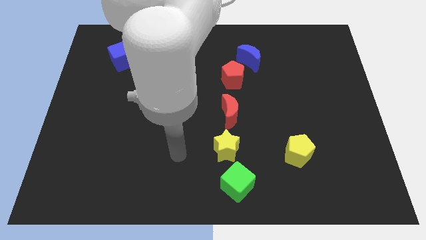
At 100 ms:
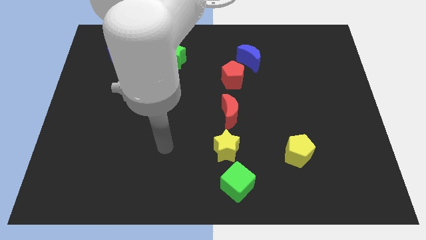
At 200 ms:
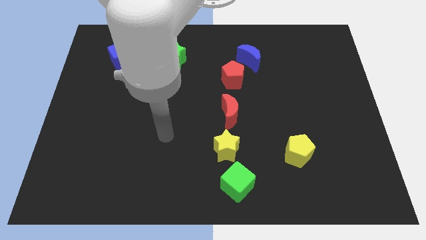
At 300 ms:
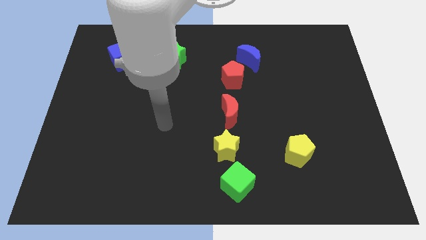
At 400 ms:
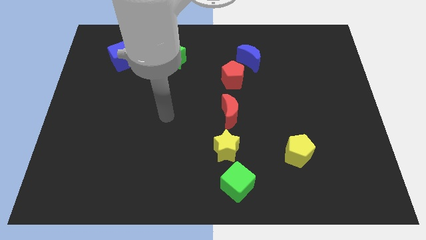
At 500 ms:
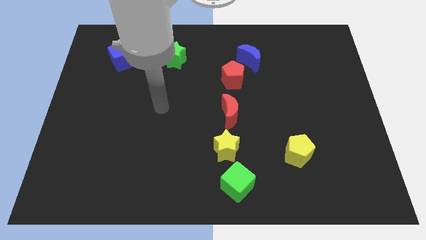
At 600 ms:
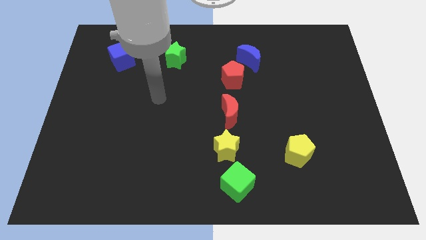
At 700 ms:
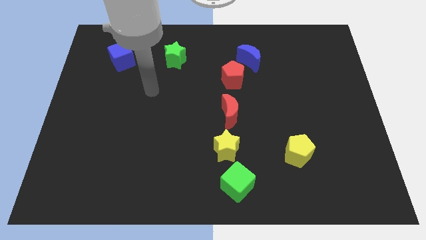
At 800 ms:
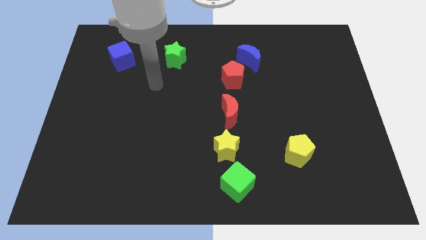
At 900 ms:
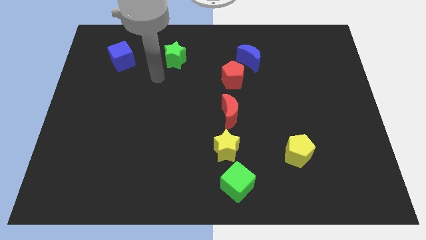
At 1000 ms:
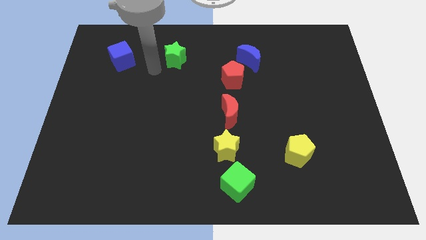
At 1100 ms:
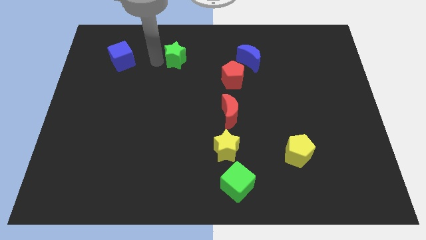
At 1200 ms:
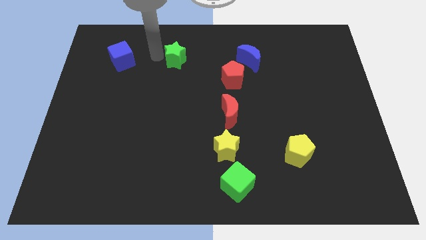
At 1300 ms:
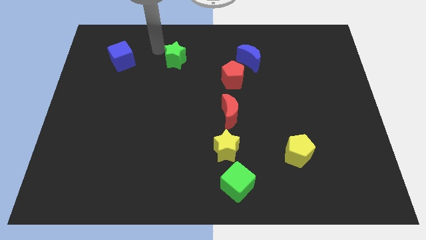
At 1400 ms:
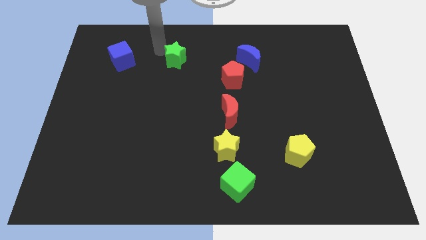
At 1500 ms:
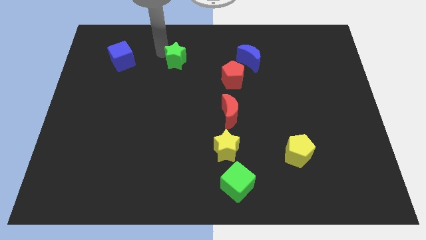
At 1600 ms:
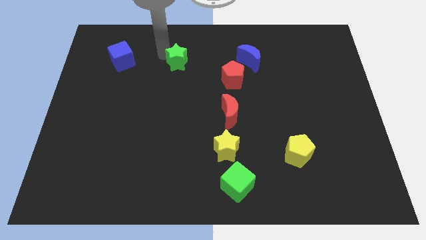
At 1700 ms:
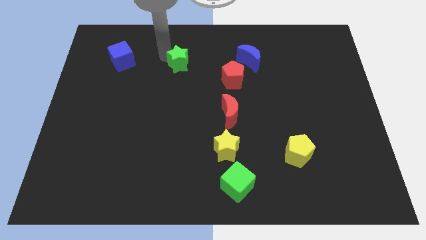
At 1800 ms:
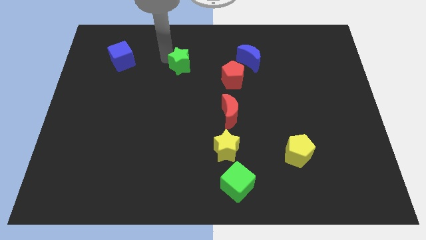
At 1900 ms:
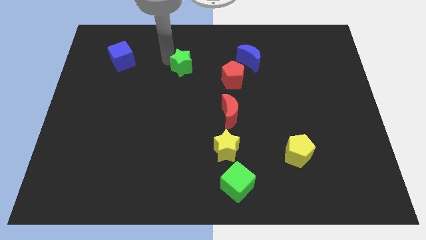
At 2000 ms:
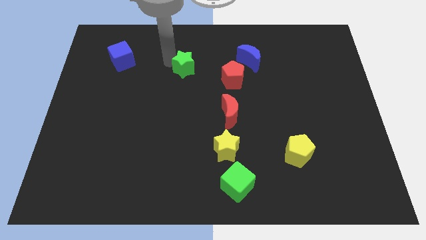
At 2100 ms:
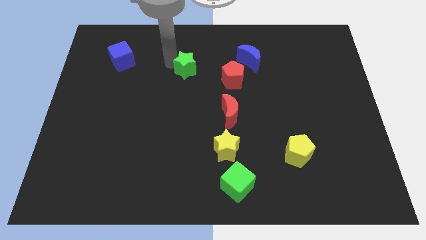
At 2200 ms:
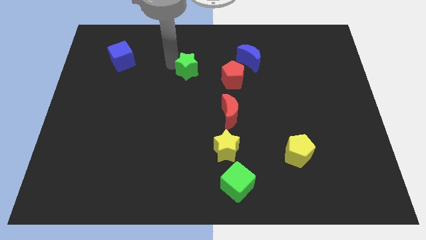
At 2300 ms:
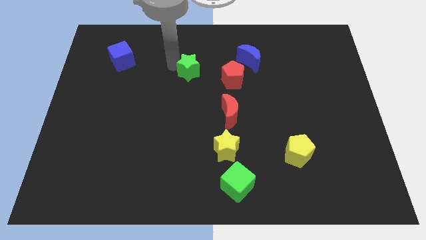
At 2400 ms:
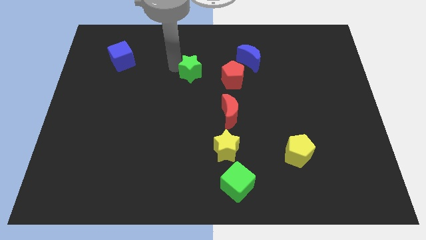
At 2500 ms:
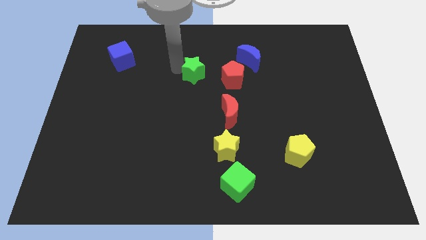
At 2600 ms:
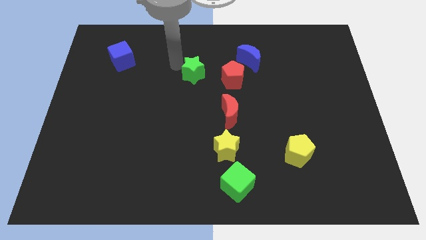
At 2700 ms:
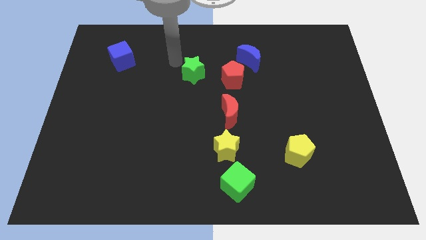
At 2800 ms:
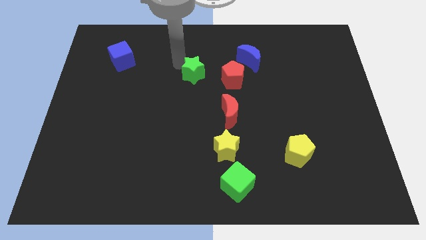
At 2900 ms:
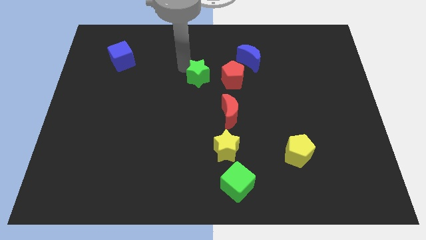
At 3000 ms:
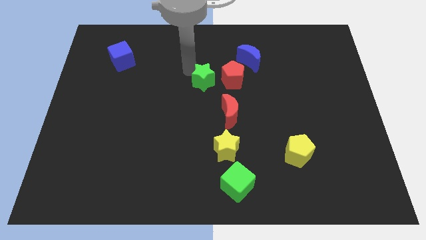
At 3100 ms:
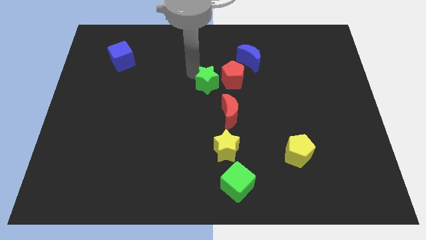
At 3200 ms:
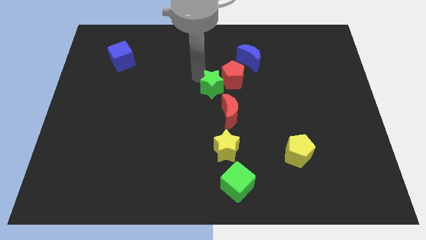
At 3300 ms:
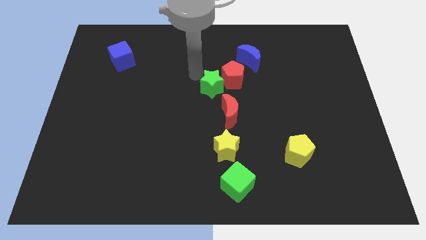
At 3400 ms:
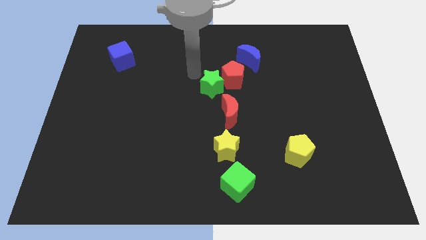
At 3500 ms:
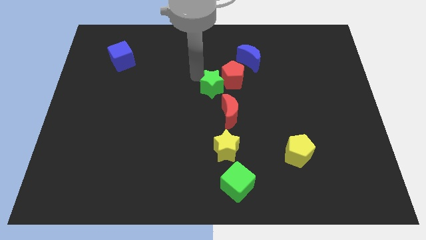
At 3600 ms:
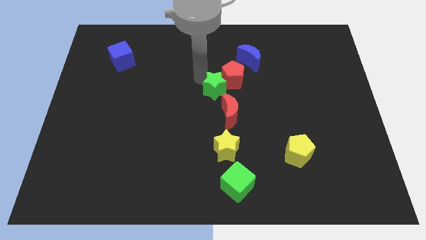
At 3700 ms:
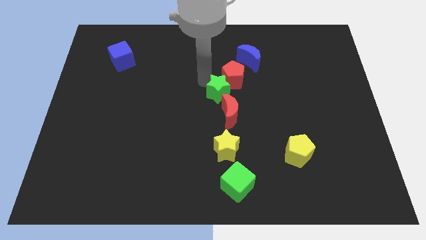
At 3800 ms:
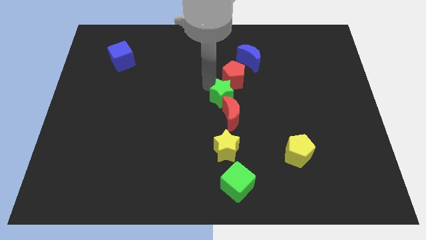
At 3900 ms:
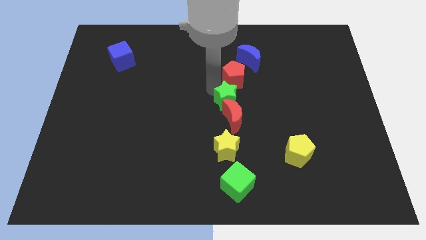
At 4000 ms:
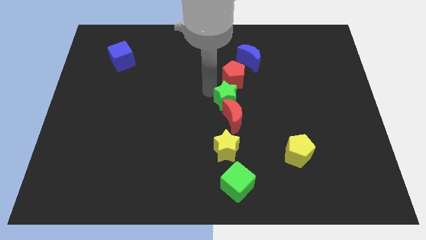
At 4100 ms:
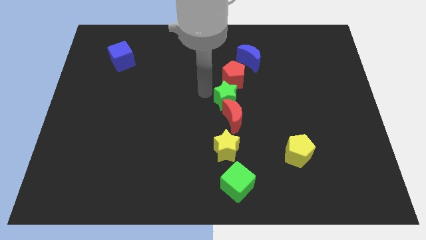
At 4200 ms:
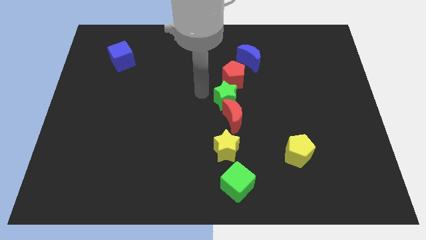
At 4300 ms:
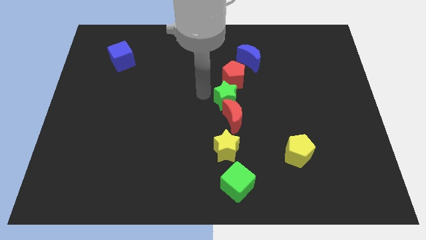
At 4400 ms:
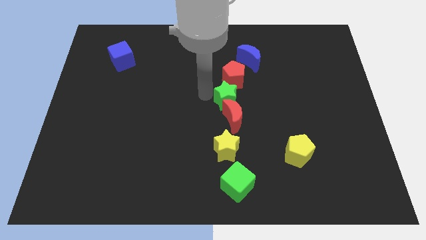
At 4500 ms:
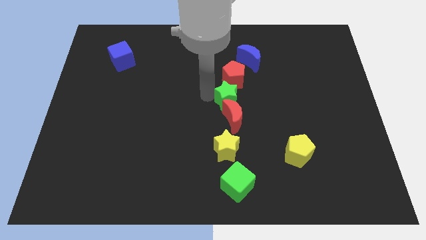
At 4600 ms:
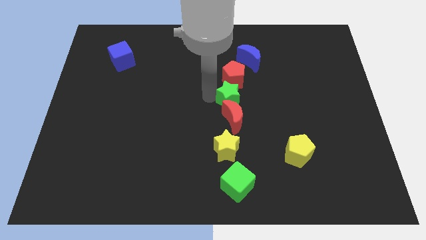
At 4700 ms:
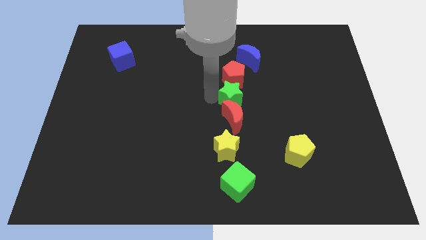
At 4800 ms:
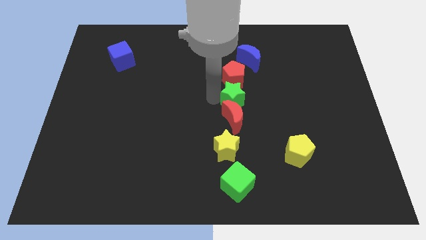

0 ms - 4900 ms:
slide the green star diagonally downwards and to the right

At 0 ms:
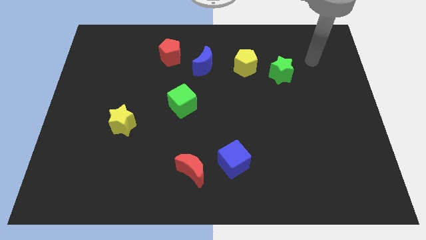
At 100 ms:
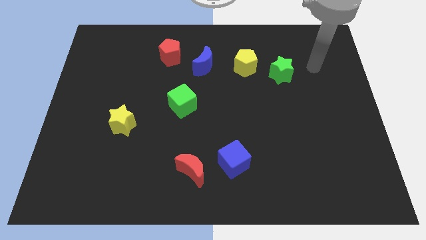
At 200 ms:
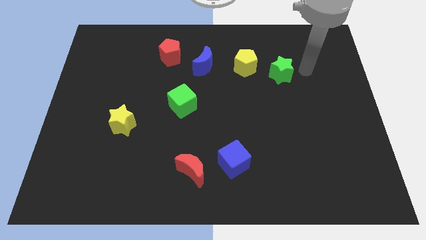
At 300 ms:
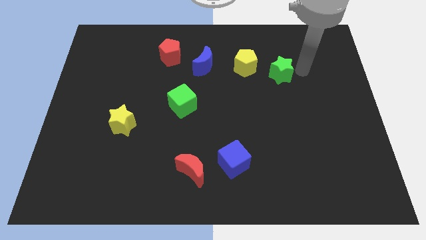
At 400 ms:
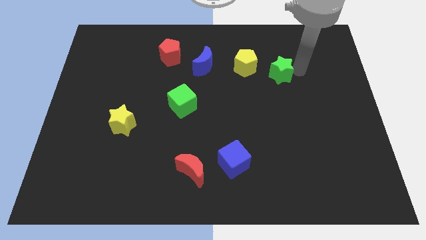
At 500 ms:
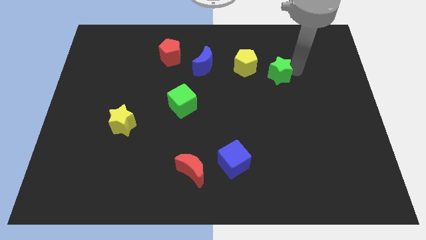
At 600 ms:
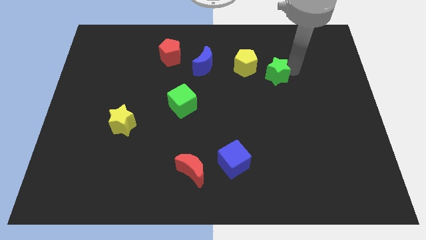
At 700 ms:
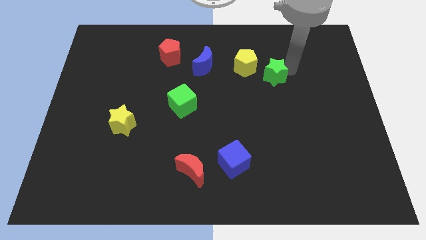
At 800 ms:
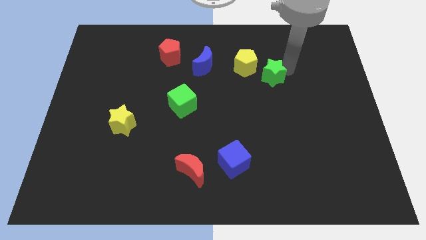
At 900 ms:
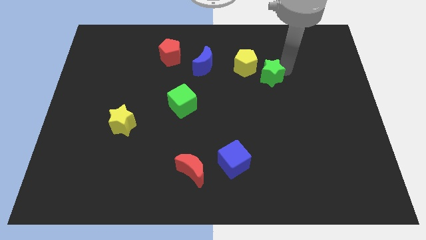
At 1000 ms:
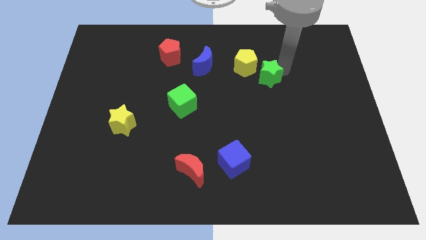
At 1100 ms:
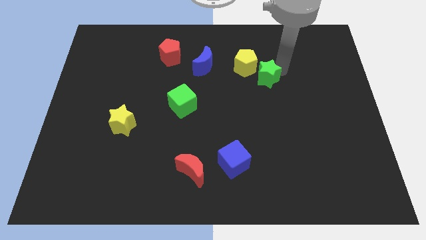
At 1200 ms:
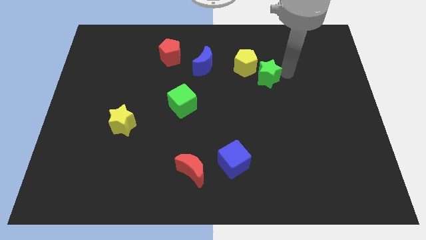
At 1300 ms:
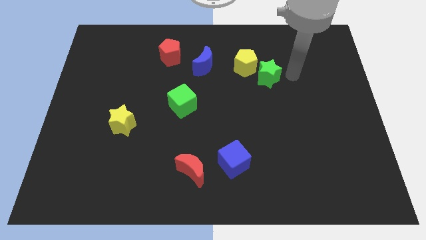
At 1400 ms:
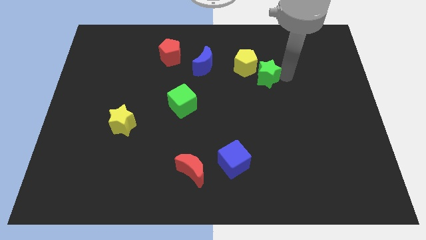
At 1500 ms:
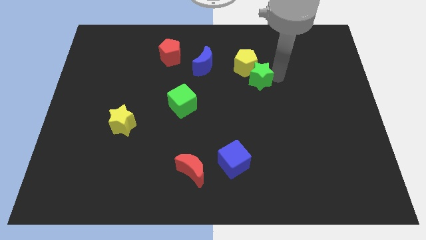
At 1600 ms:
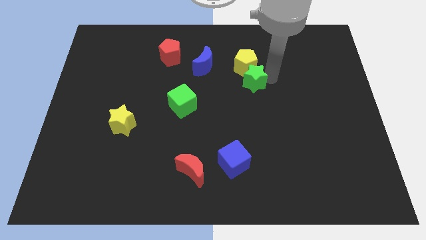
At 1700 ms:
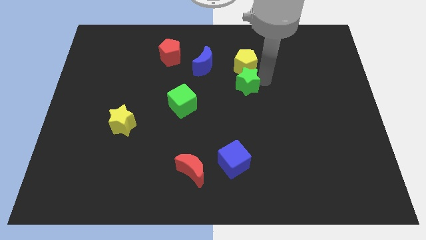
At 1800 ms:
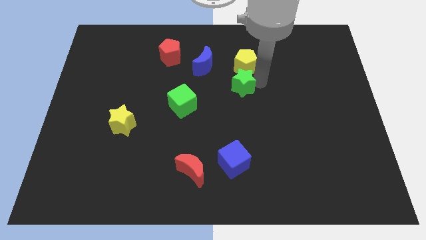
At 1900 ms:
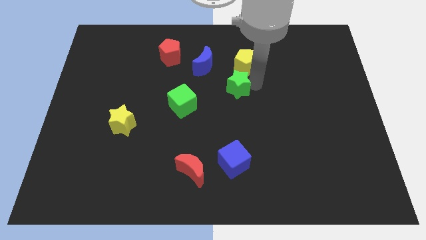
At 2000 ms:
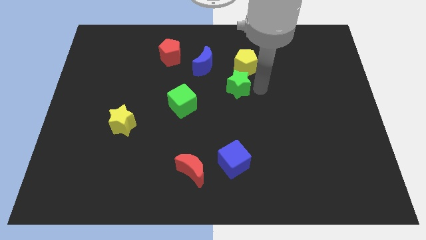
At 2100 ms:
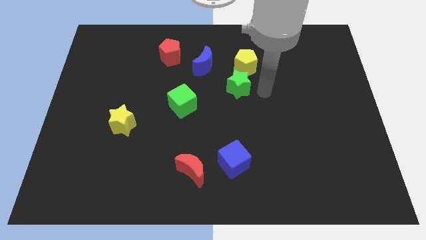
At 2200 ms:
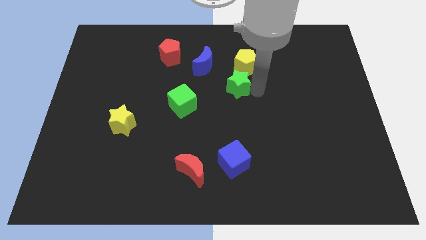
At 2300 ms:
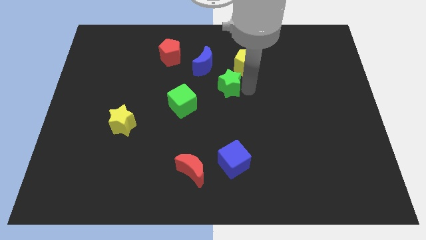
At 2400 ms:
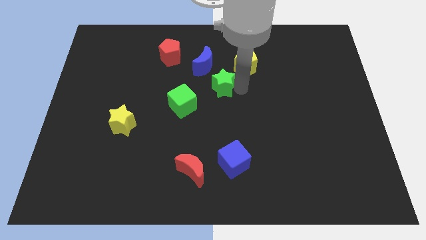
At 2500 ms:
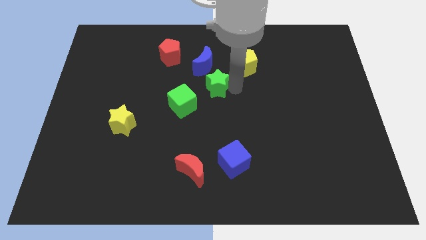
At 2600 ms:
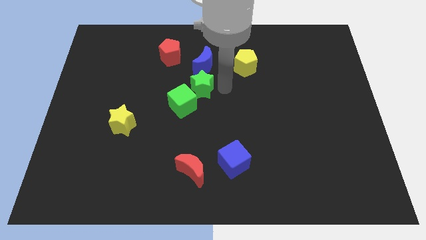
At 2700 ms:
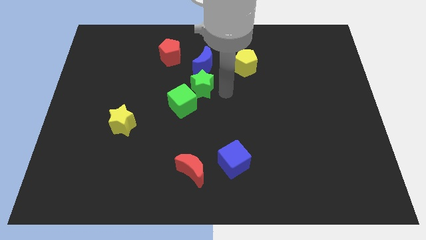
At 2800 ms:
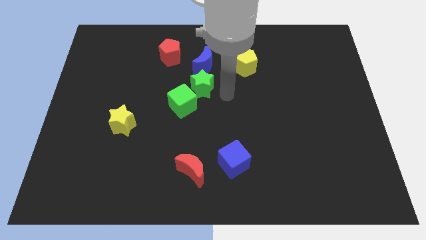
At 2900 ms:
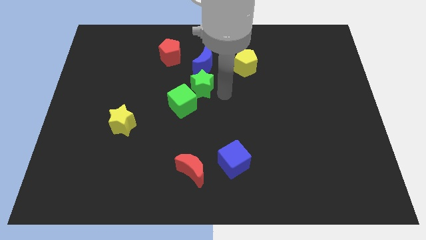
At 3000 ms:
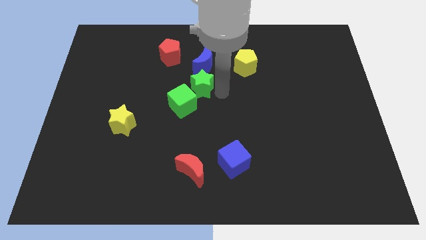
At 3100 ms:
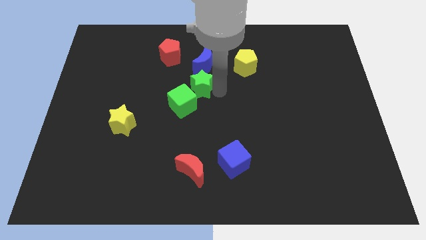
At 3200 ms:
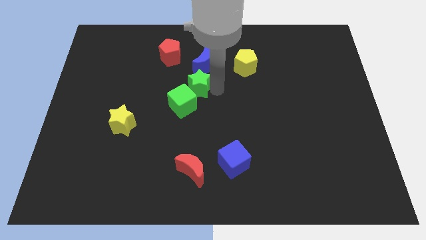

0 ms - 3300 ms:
move the green star left
